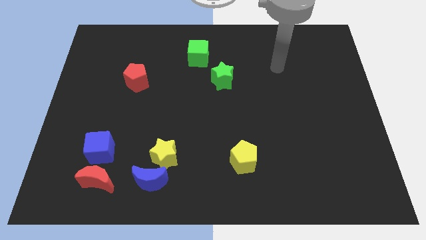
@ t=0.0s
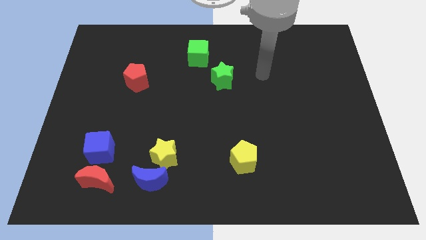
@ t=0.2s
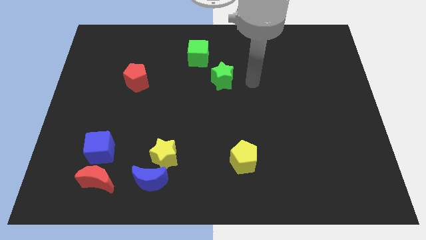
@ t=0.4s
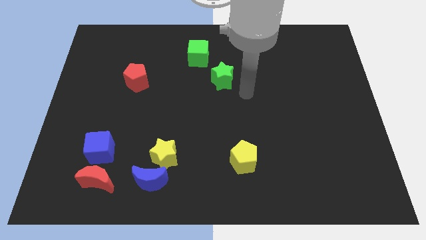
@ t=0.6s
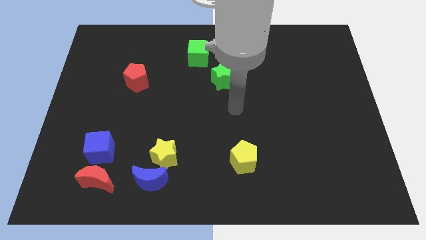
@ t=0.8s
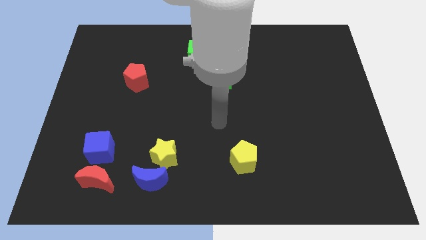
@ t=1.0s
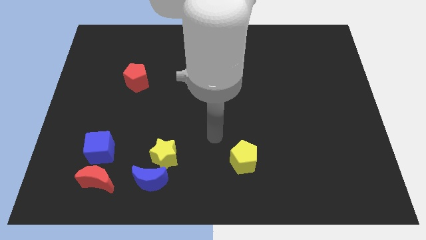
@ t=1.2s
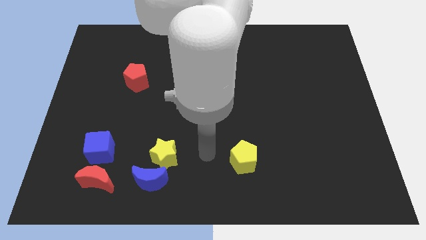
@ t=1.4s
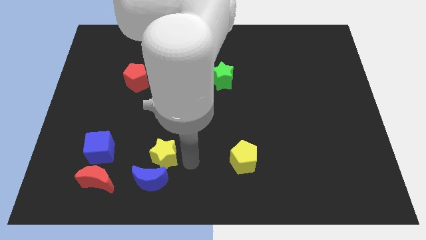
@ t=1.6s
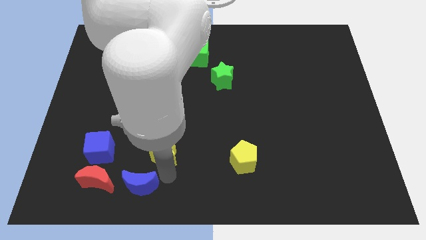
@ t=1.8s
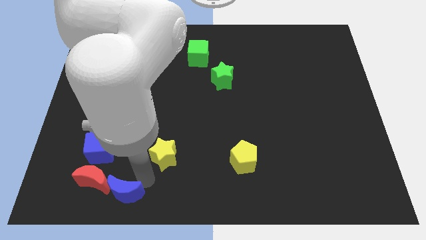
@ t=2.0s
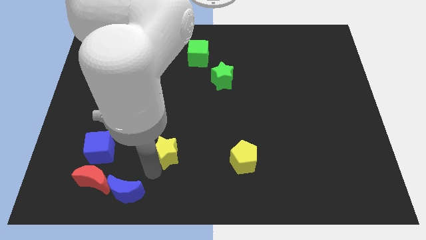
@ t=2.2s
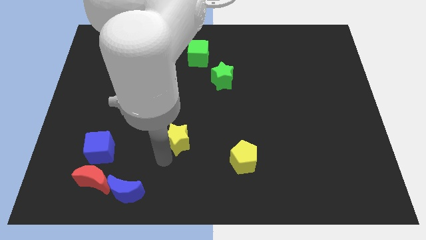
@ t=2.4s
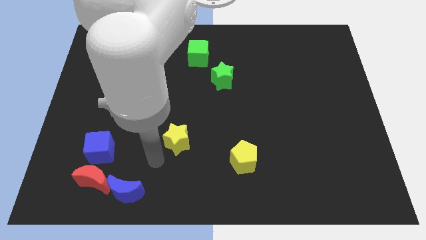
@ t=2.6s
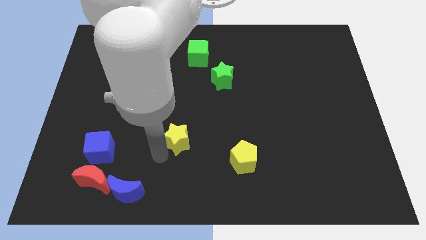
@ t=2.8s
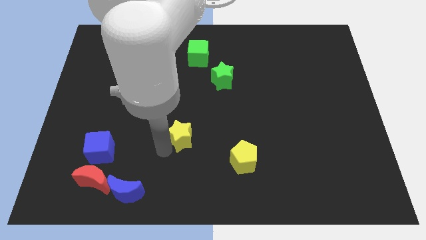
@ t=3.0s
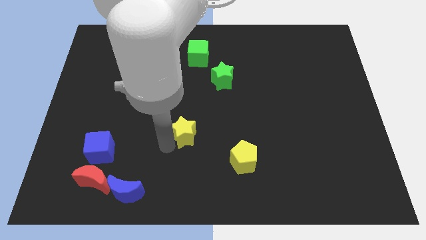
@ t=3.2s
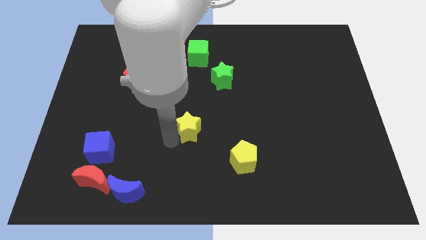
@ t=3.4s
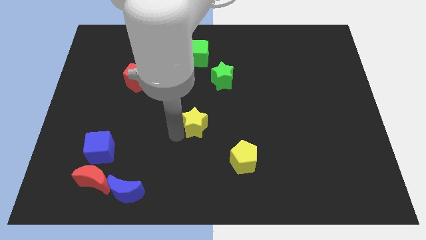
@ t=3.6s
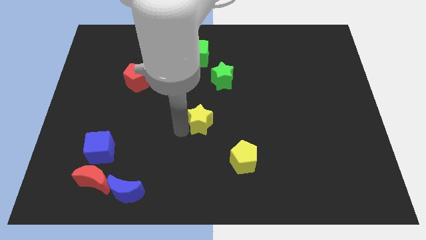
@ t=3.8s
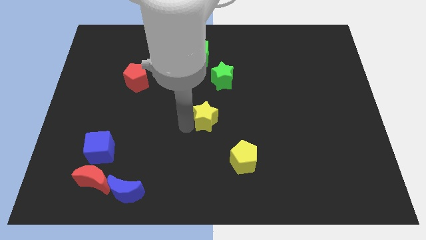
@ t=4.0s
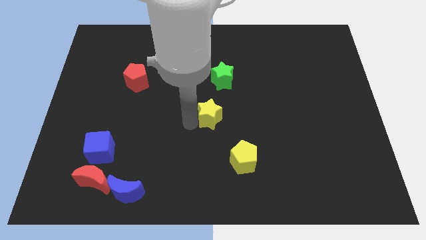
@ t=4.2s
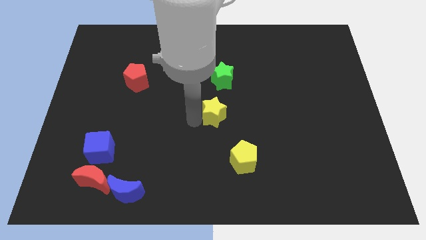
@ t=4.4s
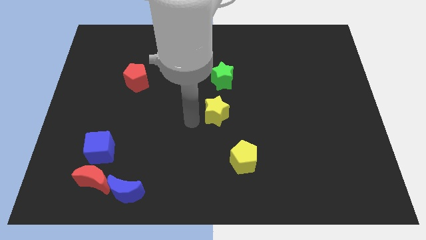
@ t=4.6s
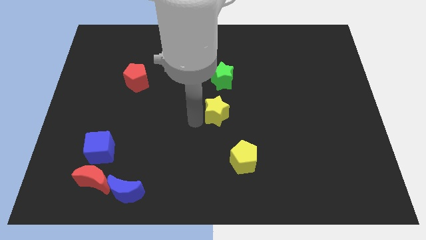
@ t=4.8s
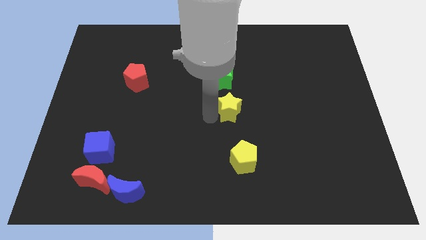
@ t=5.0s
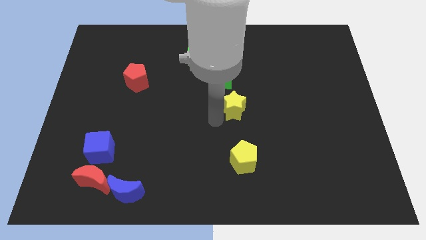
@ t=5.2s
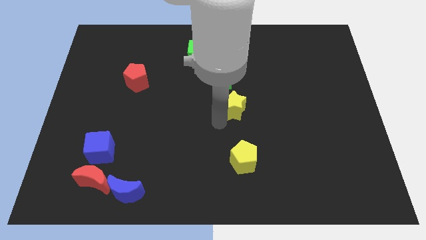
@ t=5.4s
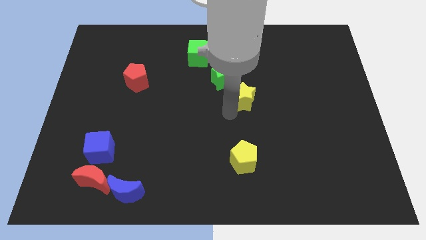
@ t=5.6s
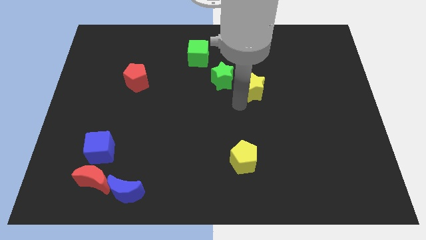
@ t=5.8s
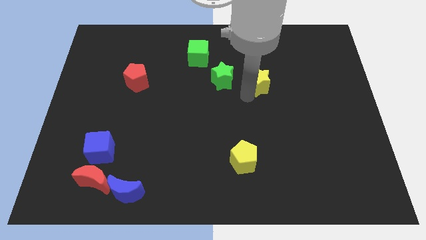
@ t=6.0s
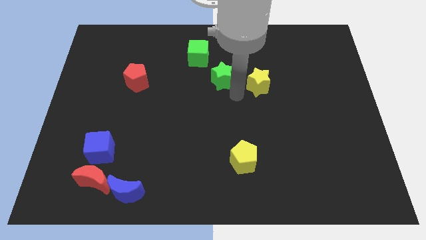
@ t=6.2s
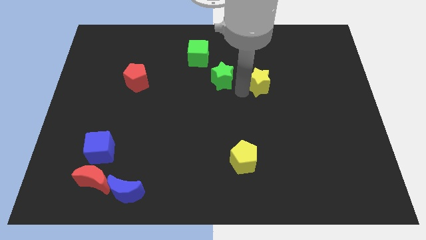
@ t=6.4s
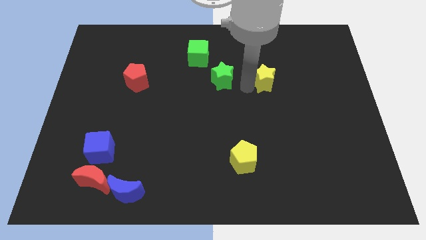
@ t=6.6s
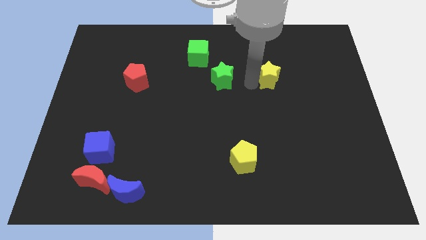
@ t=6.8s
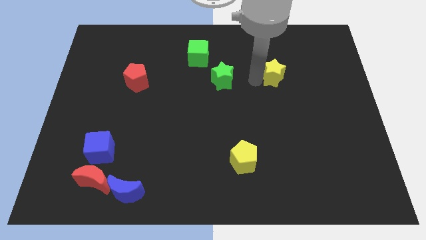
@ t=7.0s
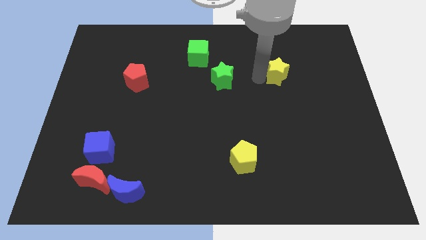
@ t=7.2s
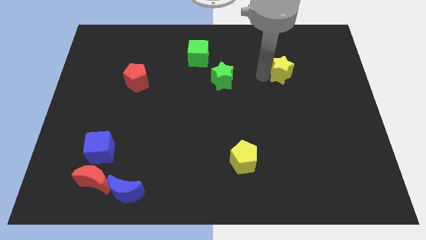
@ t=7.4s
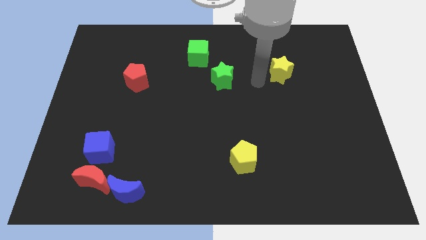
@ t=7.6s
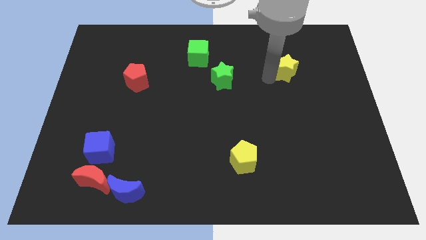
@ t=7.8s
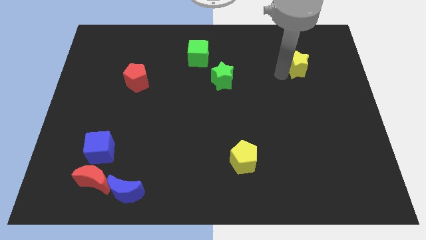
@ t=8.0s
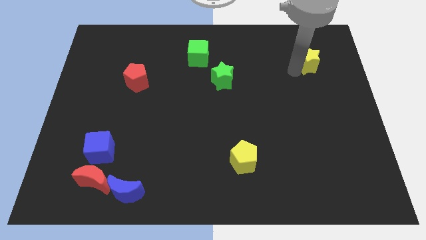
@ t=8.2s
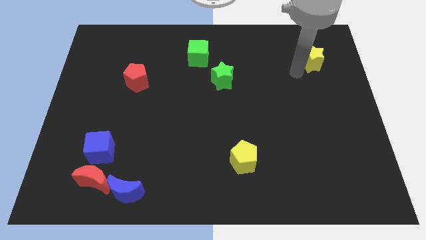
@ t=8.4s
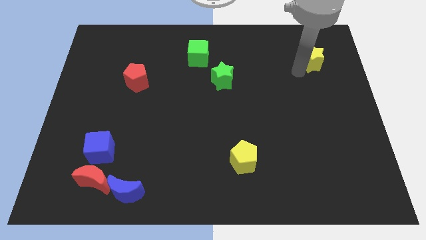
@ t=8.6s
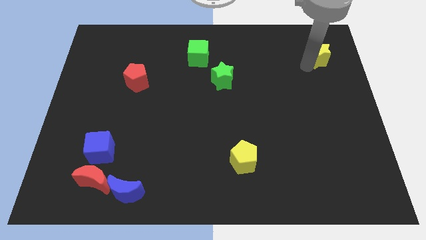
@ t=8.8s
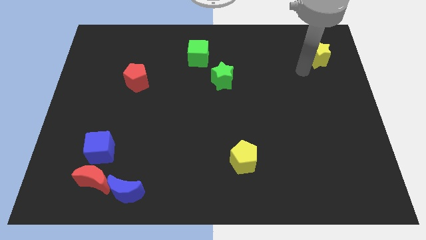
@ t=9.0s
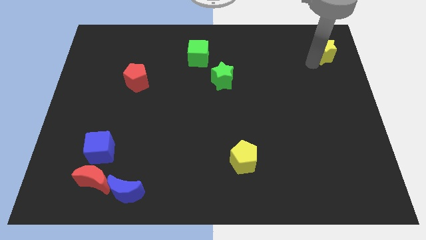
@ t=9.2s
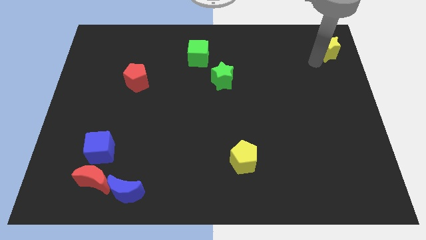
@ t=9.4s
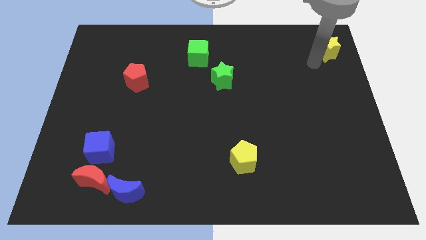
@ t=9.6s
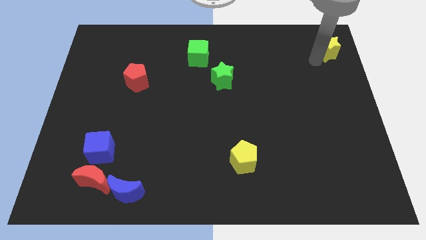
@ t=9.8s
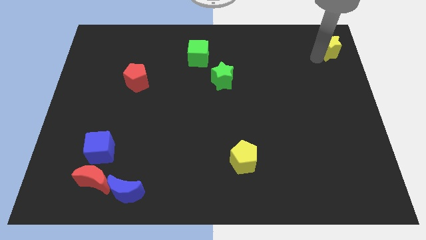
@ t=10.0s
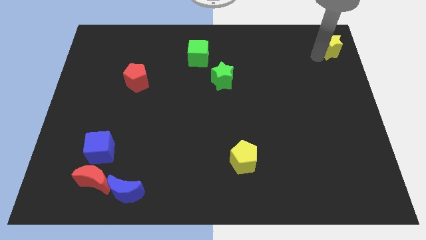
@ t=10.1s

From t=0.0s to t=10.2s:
put the yellow star to the top right of the board

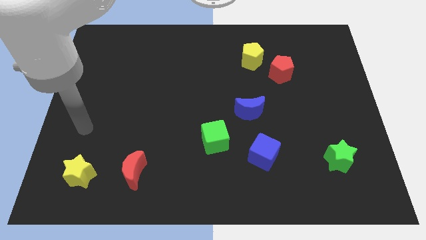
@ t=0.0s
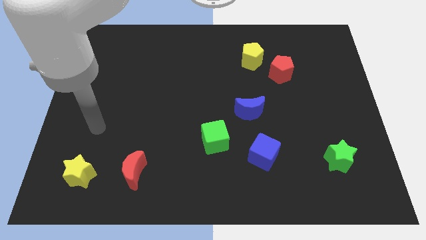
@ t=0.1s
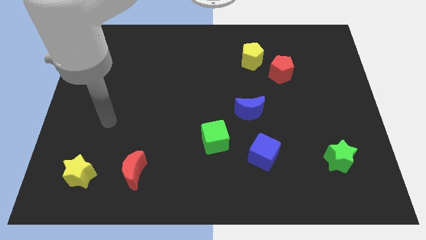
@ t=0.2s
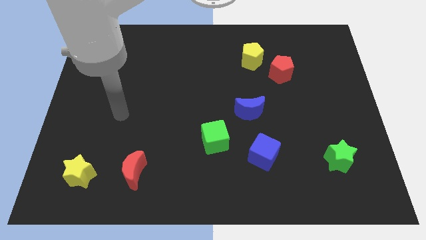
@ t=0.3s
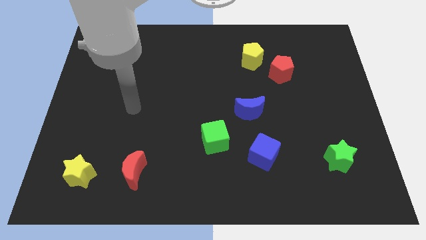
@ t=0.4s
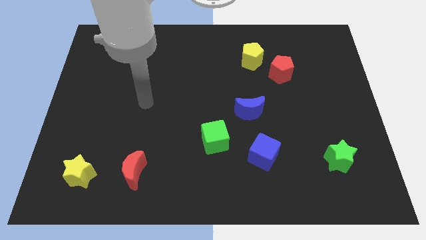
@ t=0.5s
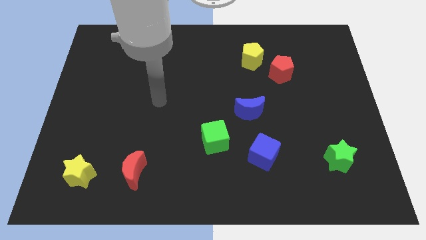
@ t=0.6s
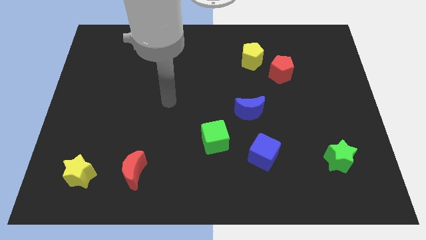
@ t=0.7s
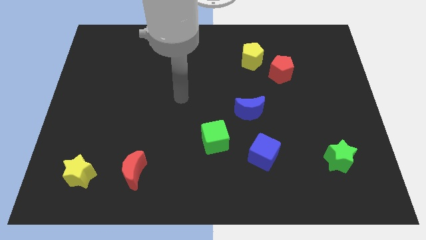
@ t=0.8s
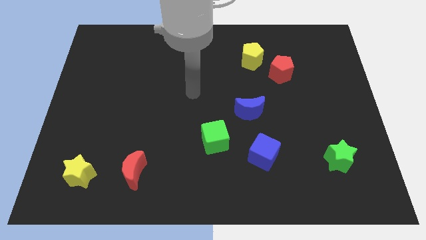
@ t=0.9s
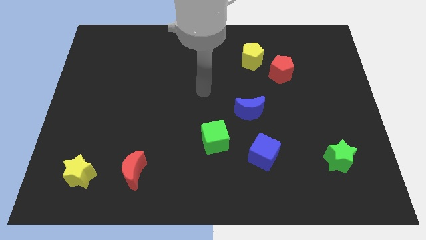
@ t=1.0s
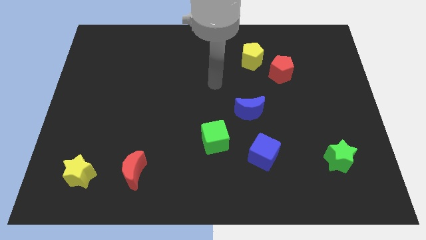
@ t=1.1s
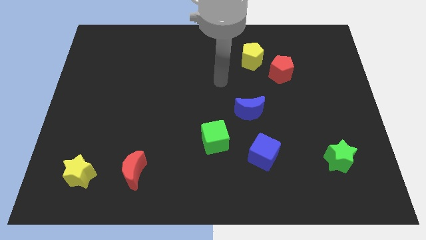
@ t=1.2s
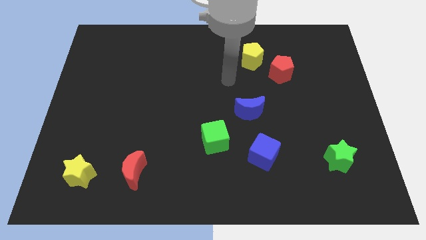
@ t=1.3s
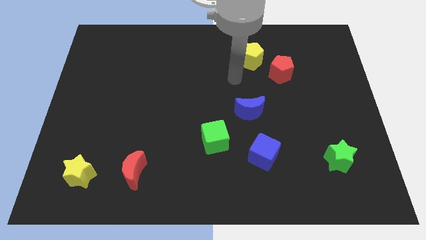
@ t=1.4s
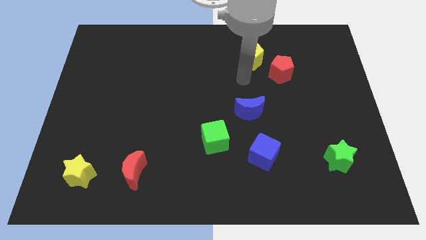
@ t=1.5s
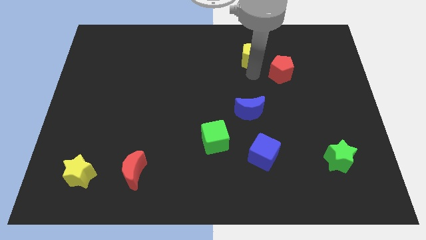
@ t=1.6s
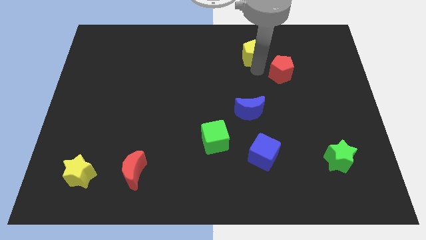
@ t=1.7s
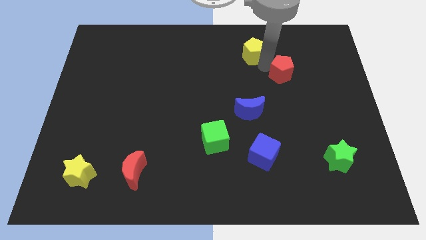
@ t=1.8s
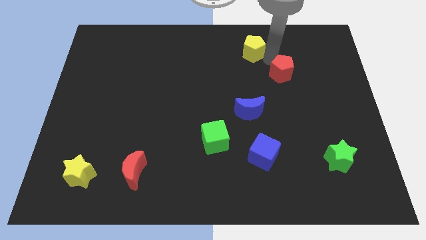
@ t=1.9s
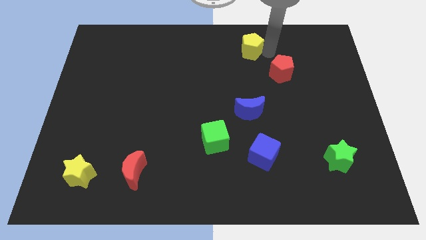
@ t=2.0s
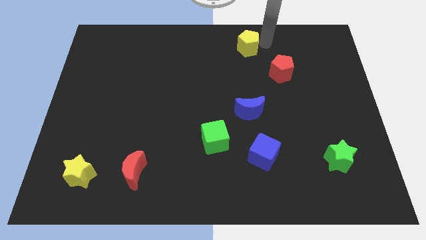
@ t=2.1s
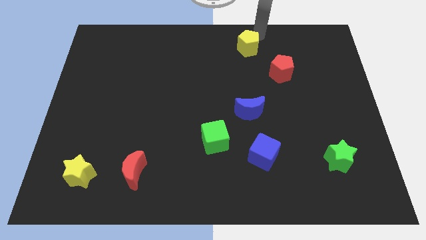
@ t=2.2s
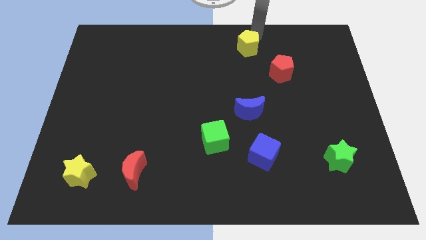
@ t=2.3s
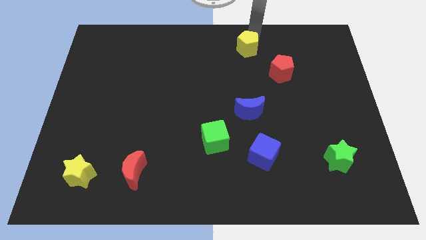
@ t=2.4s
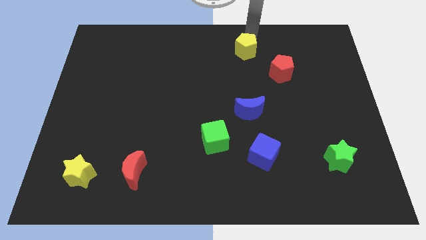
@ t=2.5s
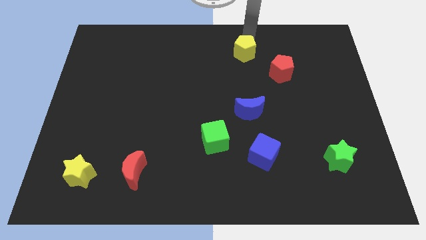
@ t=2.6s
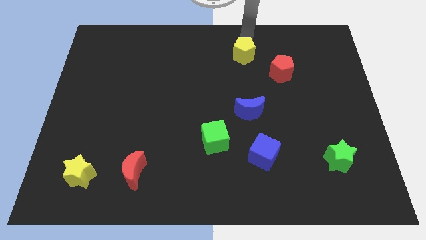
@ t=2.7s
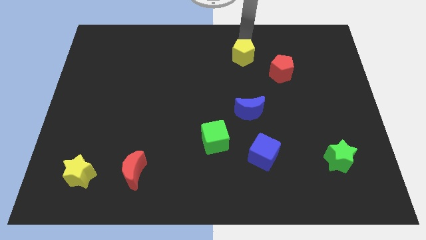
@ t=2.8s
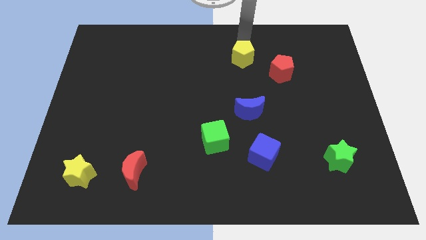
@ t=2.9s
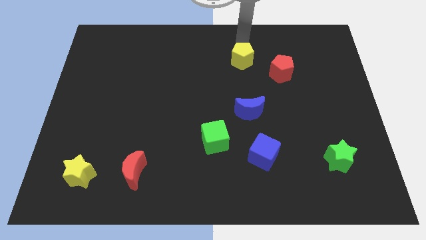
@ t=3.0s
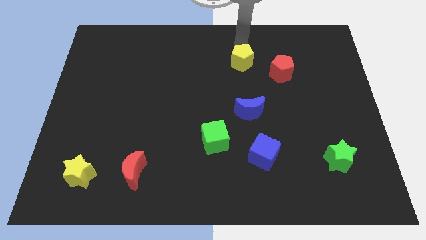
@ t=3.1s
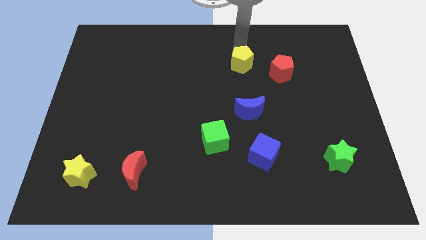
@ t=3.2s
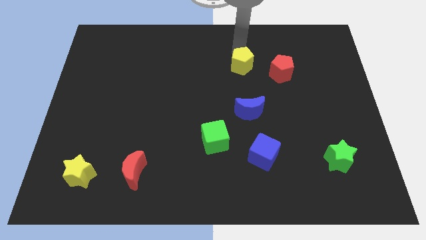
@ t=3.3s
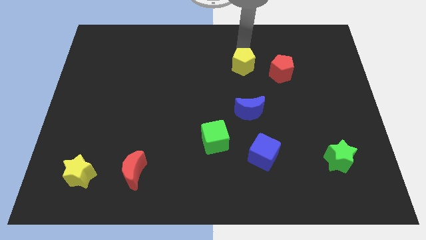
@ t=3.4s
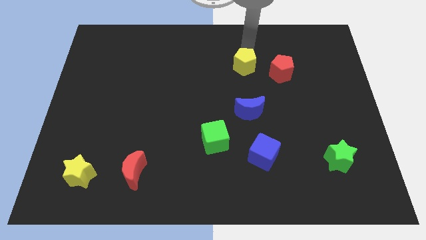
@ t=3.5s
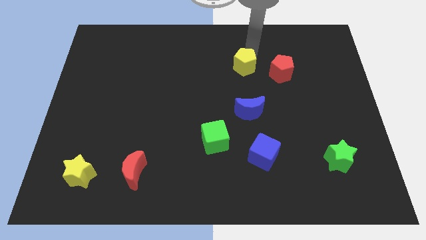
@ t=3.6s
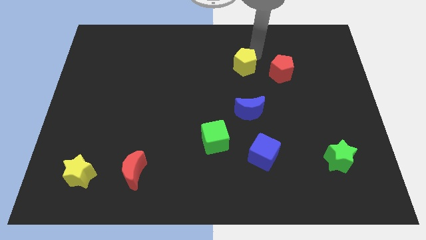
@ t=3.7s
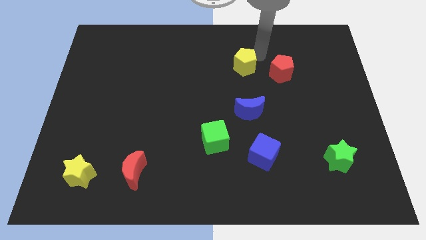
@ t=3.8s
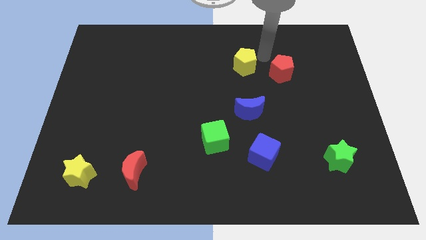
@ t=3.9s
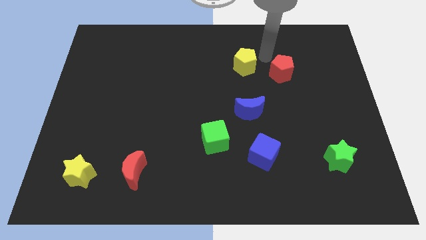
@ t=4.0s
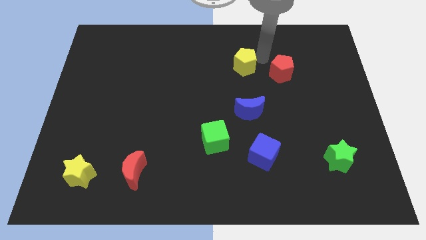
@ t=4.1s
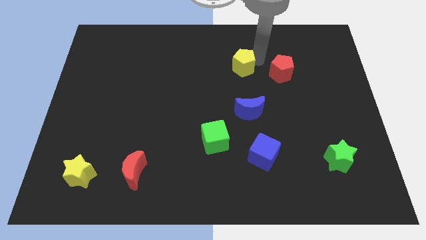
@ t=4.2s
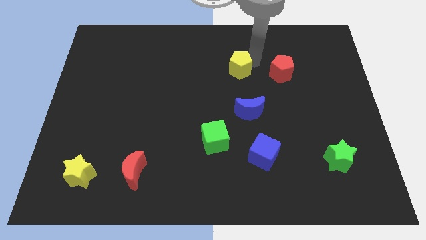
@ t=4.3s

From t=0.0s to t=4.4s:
put the yellow pentagon to the center of the board
